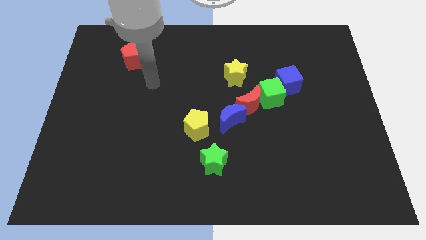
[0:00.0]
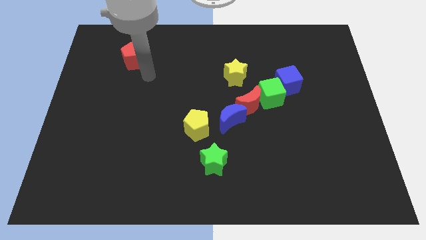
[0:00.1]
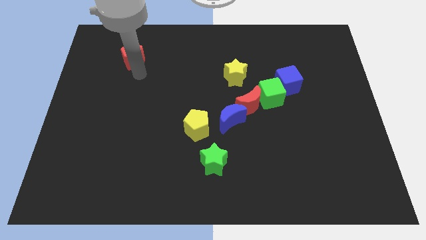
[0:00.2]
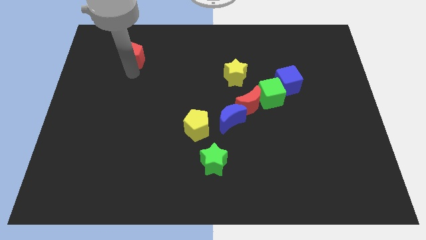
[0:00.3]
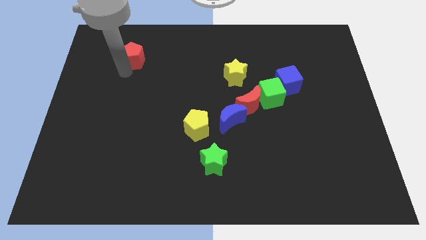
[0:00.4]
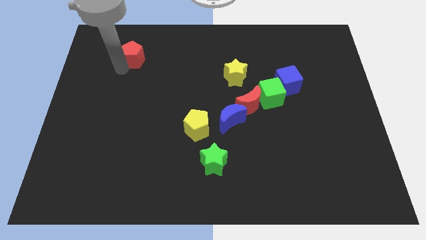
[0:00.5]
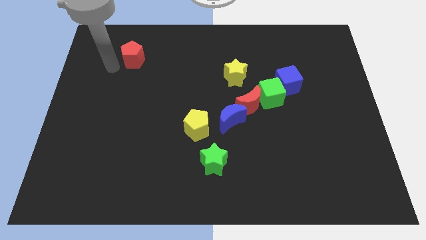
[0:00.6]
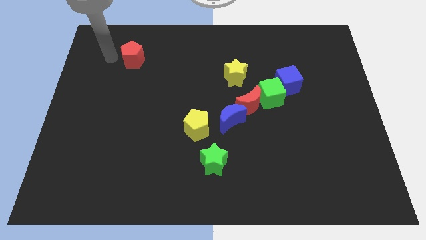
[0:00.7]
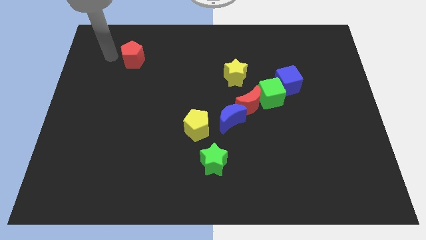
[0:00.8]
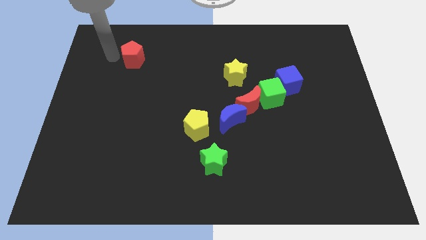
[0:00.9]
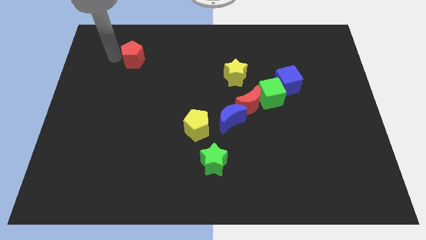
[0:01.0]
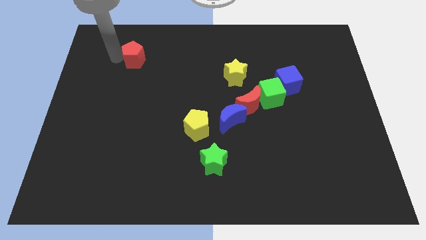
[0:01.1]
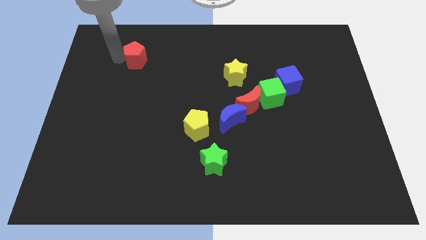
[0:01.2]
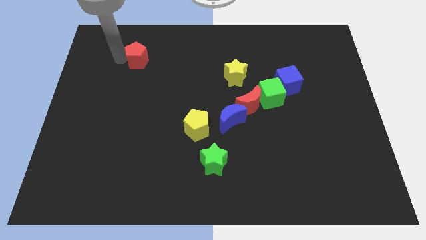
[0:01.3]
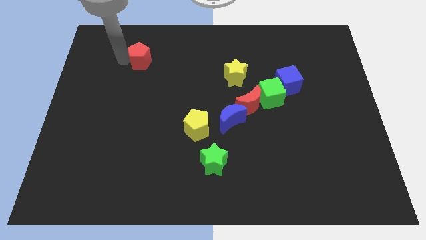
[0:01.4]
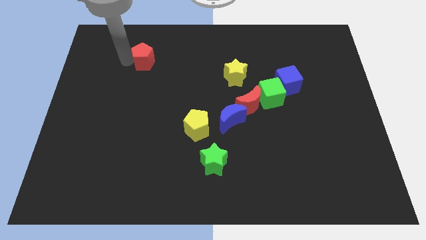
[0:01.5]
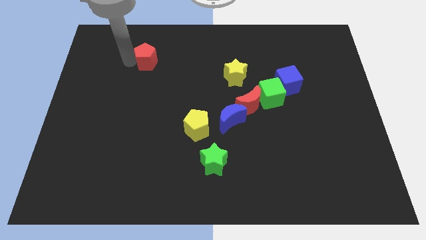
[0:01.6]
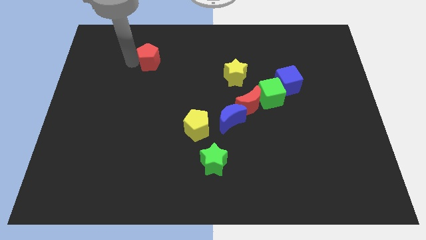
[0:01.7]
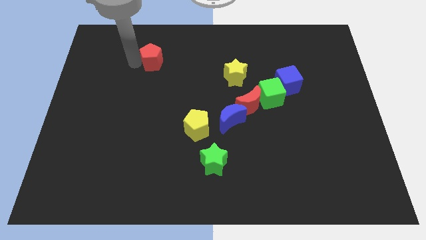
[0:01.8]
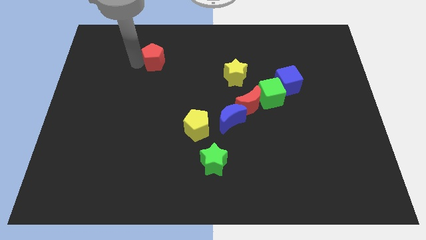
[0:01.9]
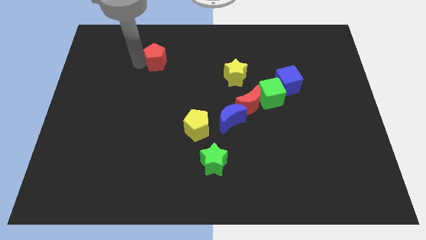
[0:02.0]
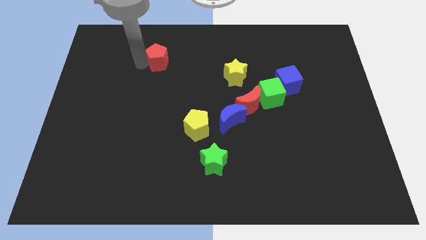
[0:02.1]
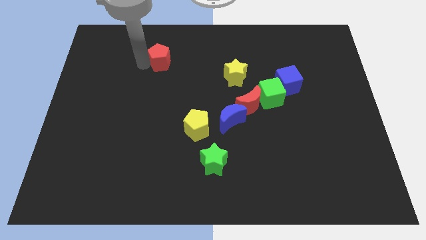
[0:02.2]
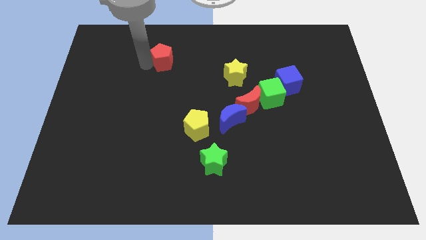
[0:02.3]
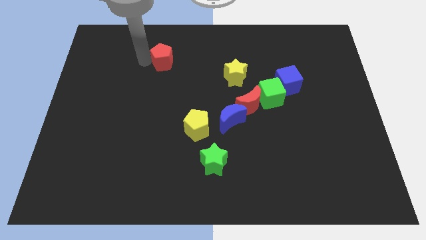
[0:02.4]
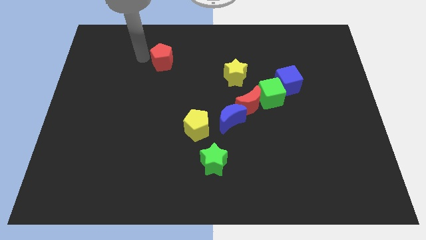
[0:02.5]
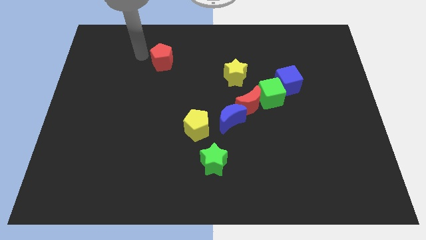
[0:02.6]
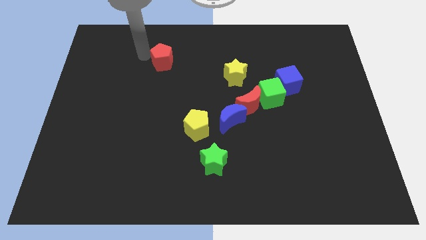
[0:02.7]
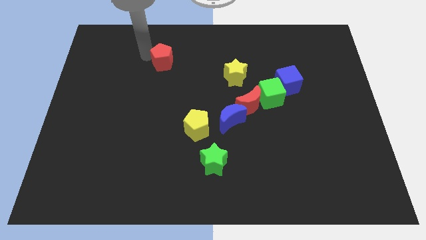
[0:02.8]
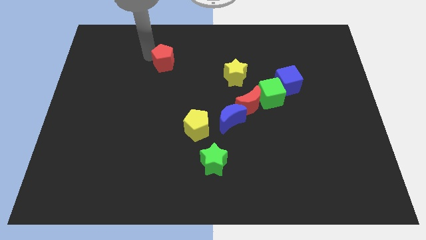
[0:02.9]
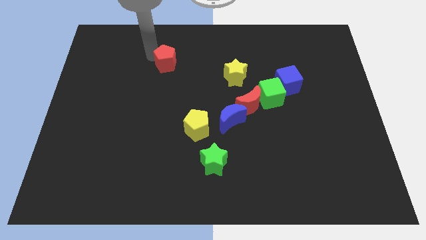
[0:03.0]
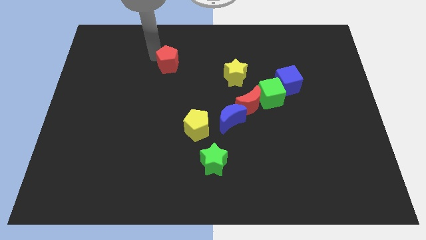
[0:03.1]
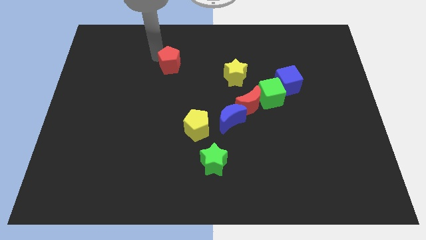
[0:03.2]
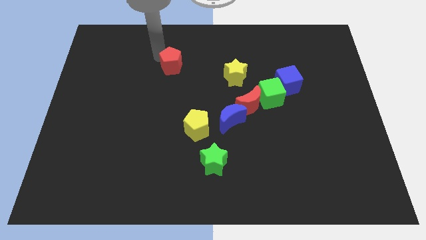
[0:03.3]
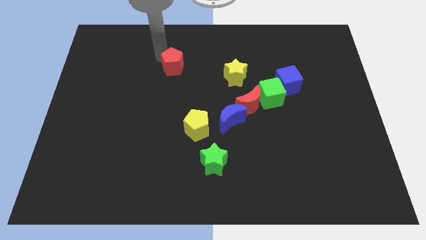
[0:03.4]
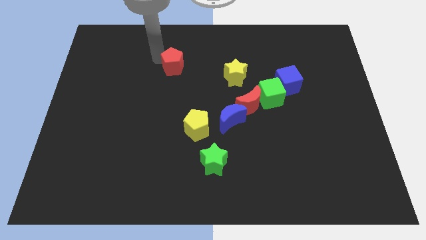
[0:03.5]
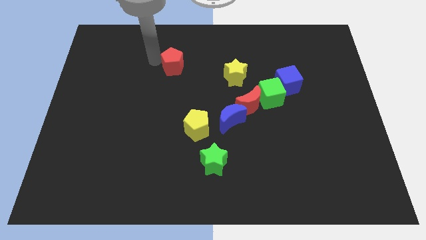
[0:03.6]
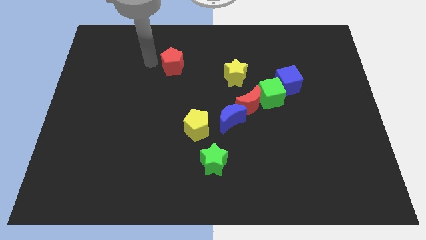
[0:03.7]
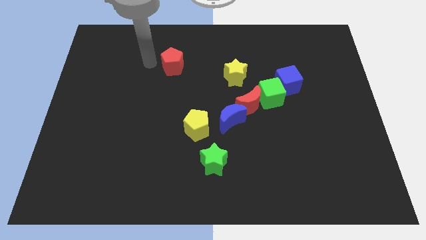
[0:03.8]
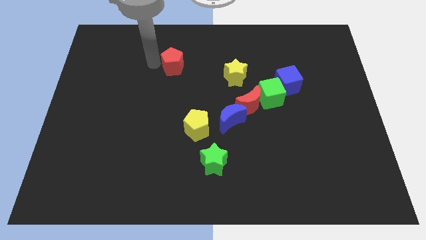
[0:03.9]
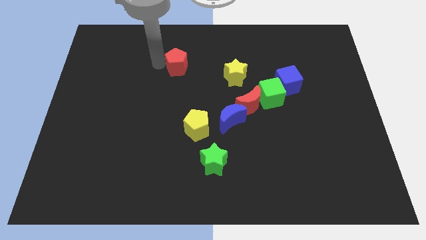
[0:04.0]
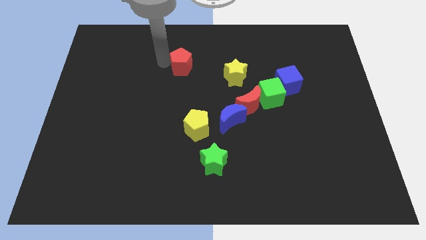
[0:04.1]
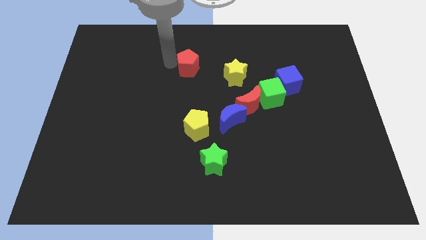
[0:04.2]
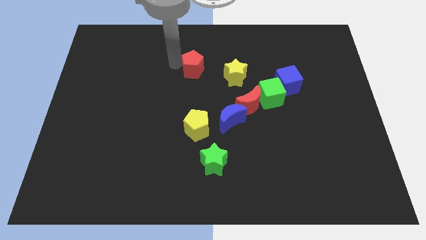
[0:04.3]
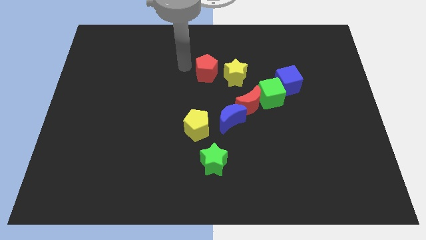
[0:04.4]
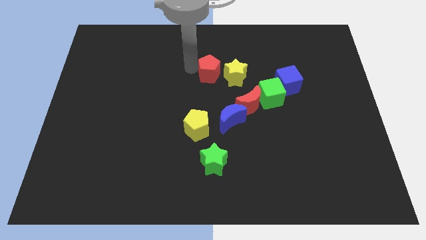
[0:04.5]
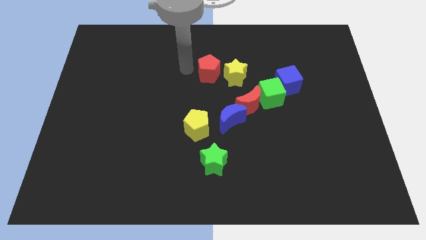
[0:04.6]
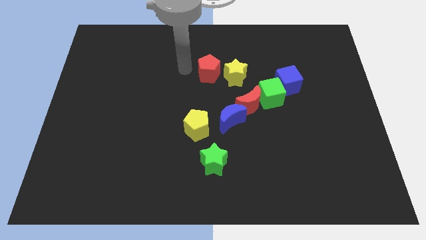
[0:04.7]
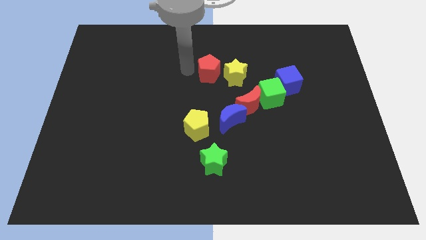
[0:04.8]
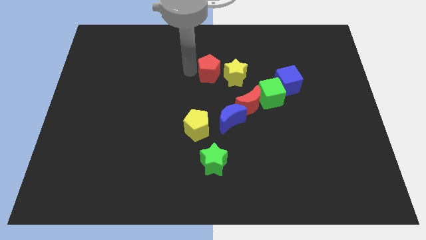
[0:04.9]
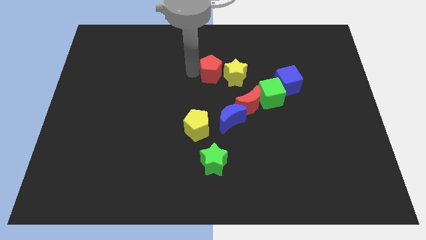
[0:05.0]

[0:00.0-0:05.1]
put the red pentagon next to the yellow star

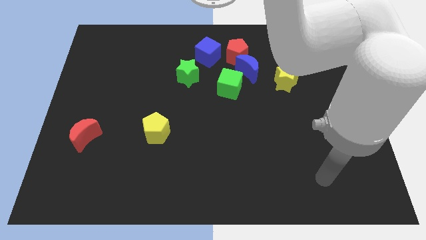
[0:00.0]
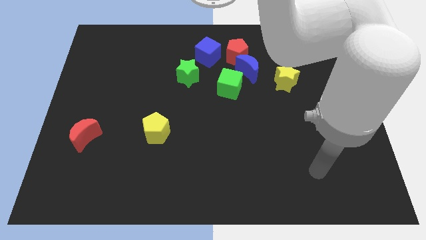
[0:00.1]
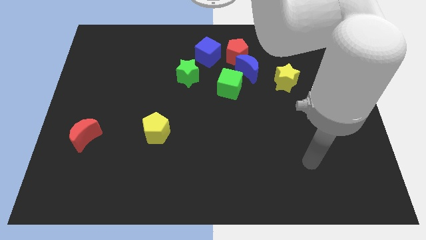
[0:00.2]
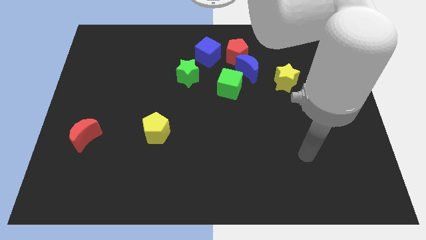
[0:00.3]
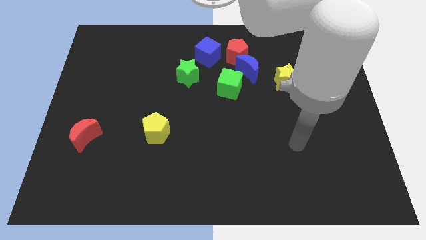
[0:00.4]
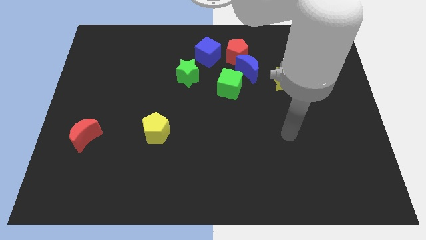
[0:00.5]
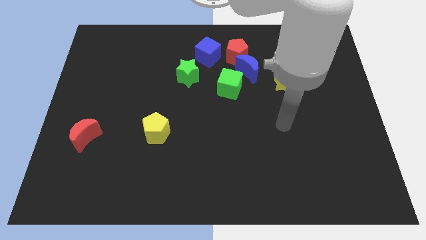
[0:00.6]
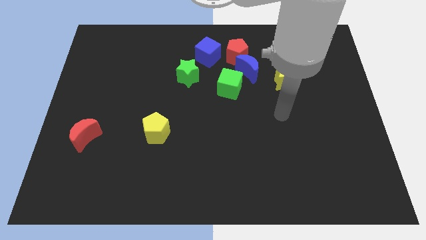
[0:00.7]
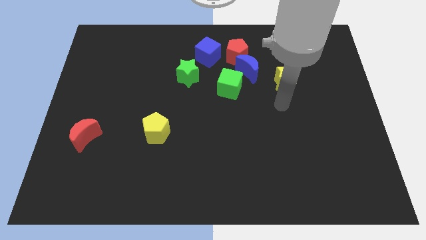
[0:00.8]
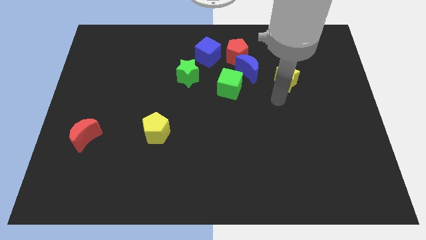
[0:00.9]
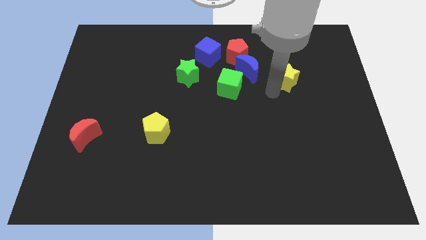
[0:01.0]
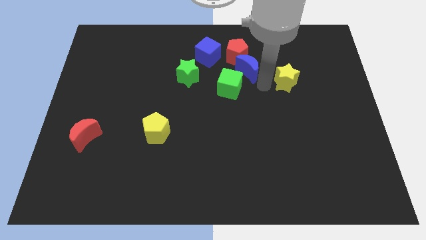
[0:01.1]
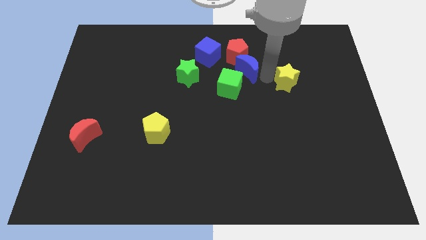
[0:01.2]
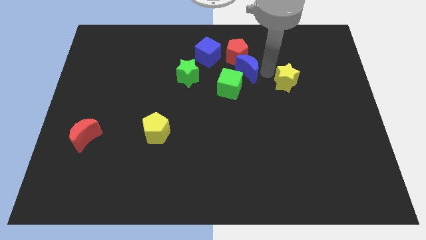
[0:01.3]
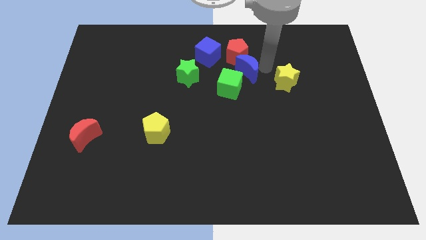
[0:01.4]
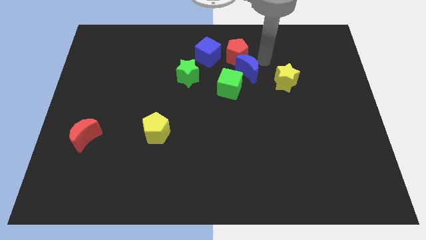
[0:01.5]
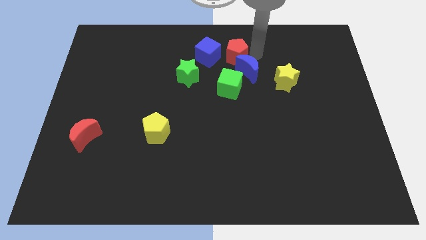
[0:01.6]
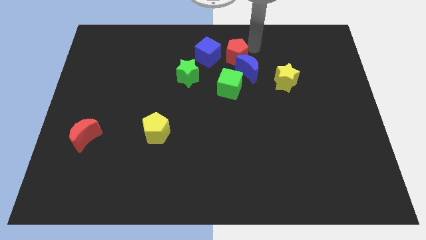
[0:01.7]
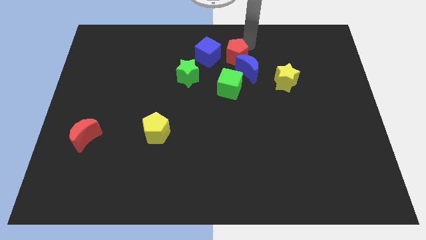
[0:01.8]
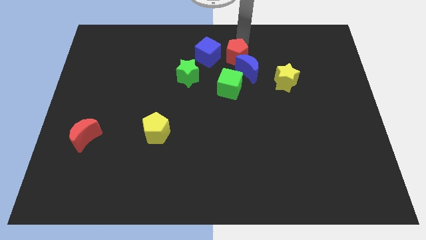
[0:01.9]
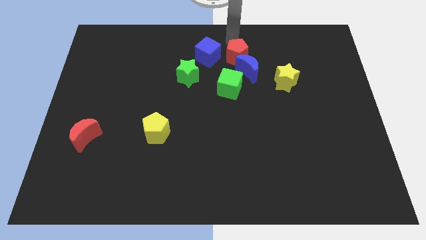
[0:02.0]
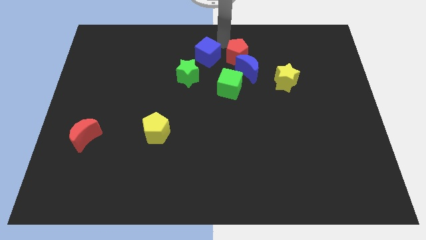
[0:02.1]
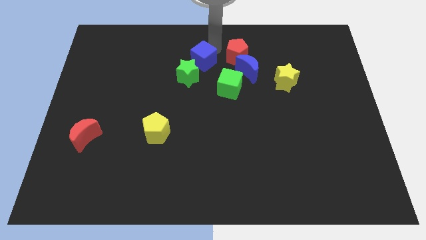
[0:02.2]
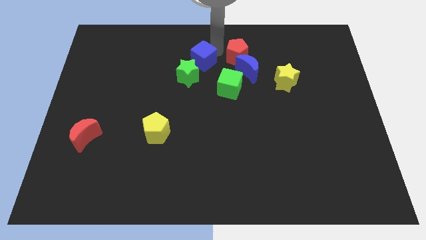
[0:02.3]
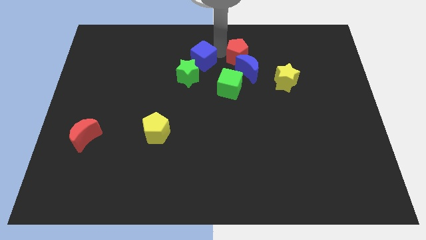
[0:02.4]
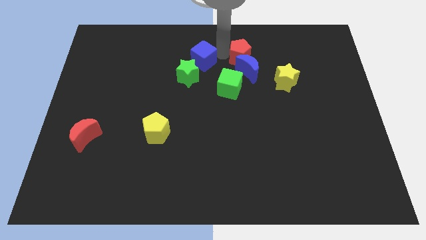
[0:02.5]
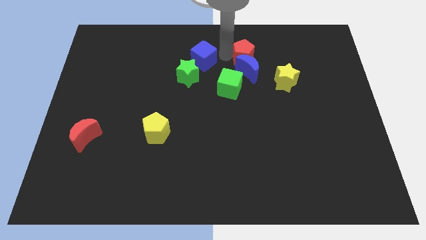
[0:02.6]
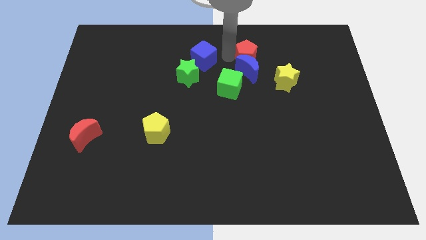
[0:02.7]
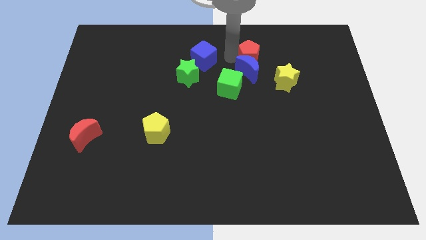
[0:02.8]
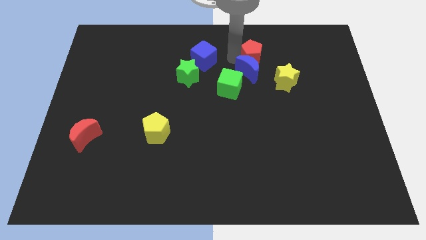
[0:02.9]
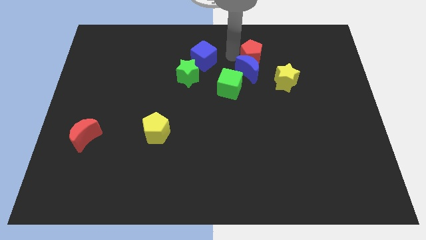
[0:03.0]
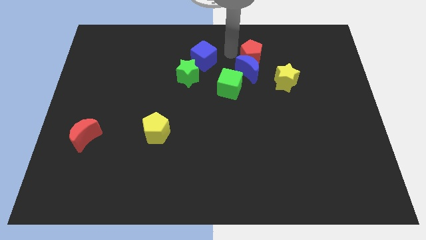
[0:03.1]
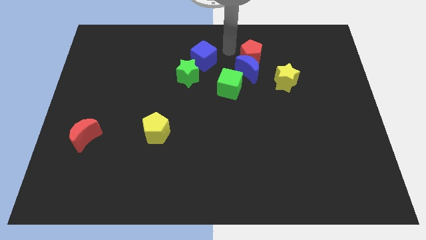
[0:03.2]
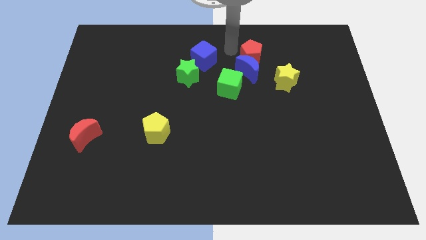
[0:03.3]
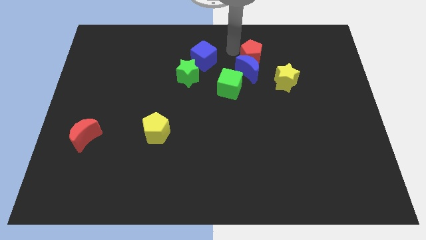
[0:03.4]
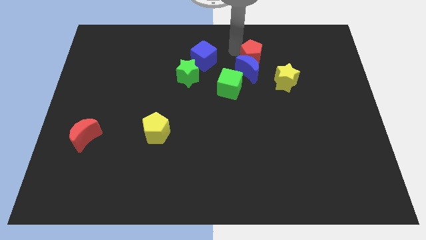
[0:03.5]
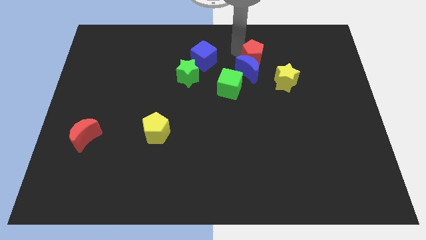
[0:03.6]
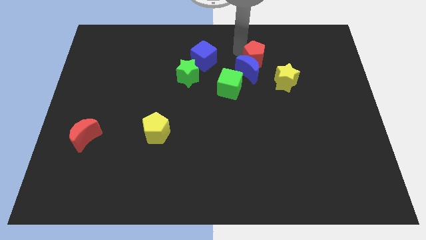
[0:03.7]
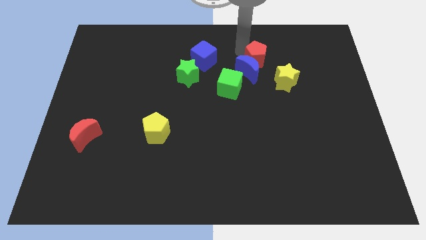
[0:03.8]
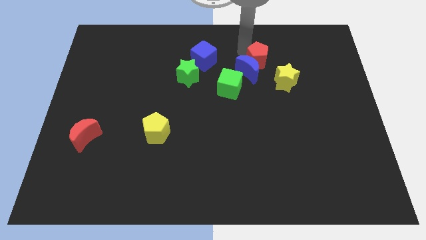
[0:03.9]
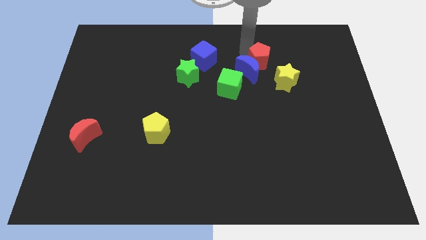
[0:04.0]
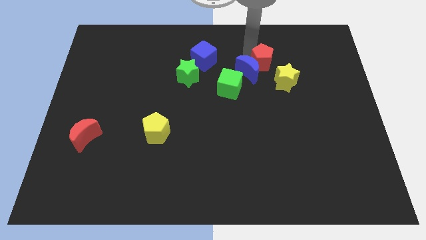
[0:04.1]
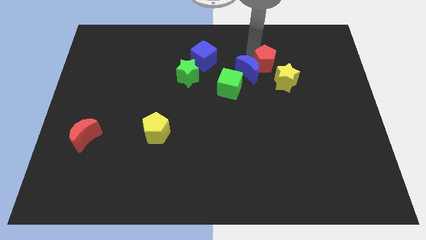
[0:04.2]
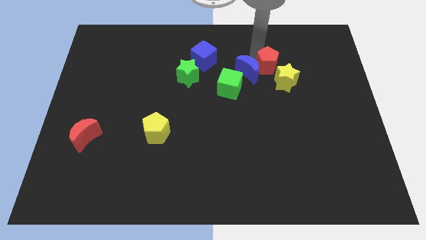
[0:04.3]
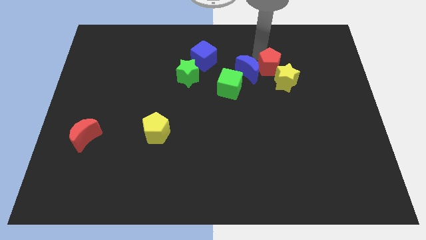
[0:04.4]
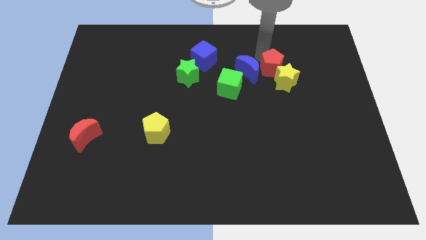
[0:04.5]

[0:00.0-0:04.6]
push the red pentagon close to the yellow star
